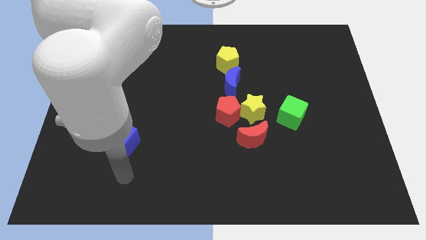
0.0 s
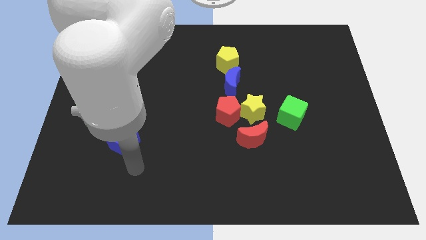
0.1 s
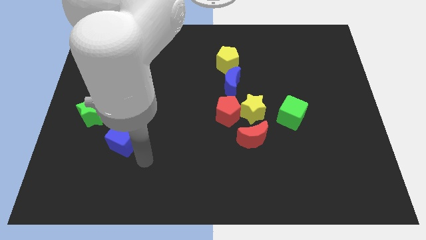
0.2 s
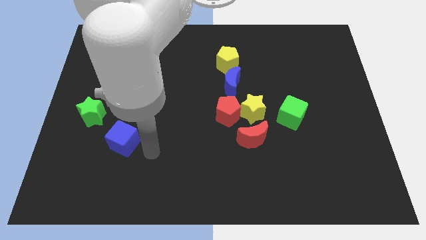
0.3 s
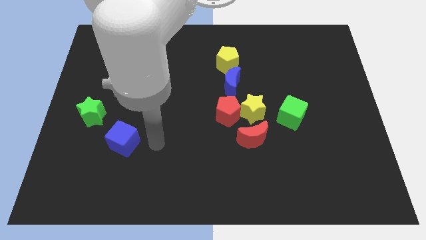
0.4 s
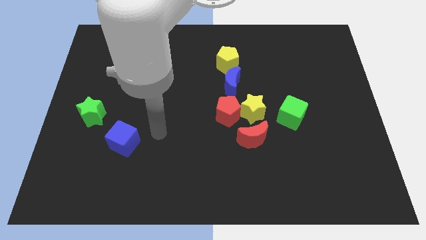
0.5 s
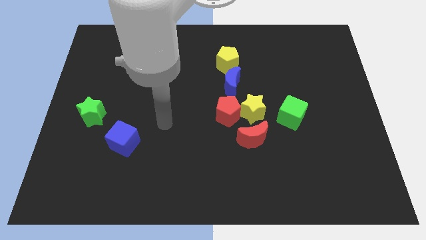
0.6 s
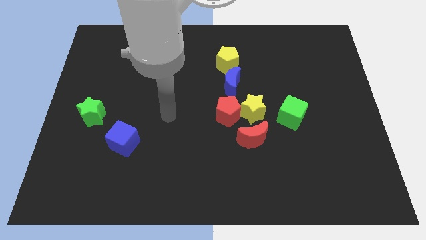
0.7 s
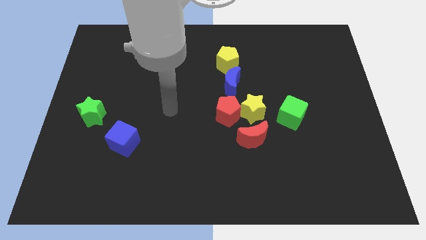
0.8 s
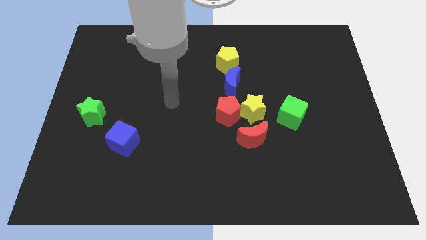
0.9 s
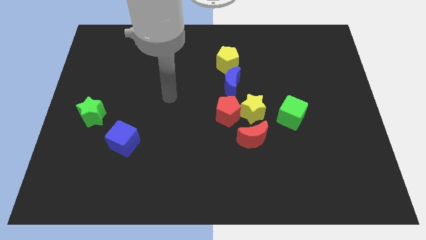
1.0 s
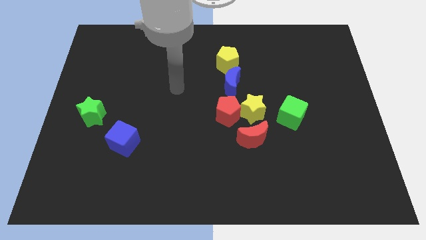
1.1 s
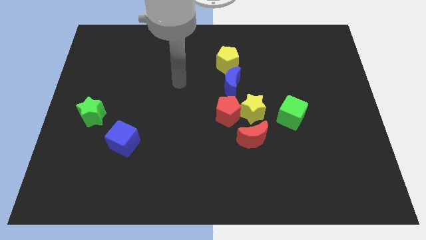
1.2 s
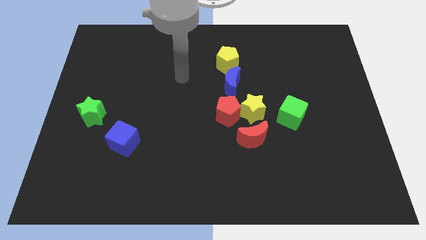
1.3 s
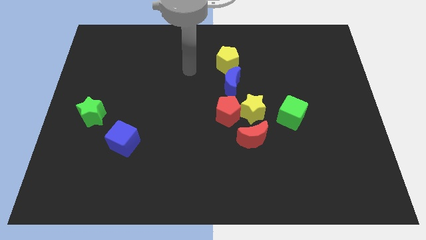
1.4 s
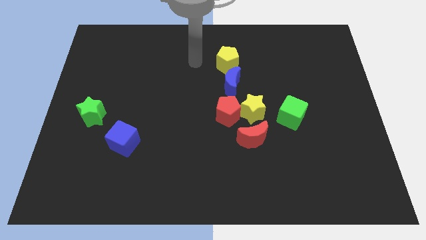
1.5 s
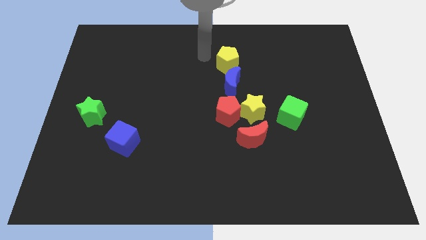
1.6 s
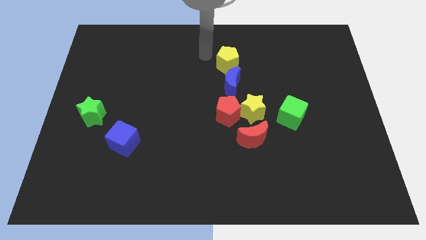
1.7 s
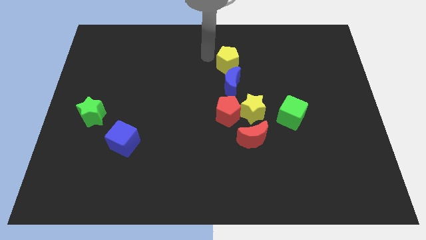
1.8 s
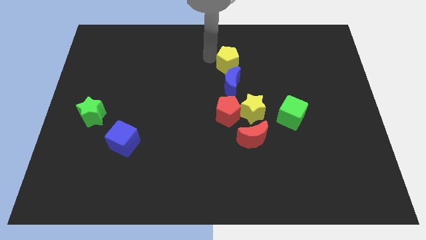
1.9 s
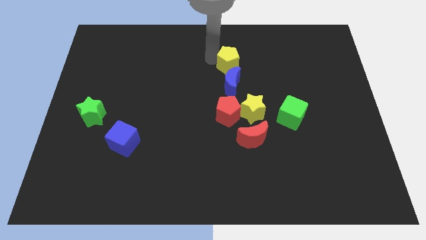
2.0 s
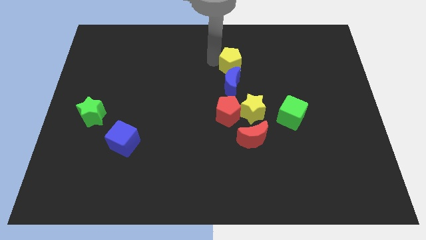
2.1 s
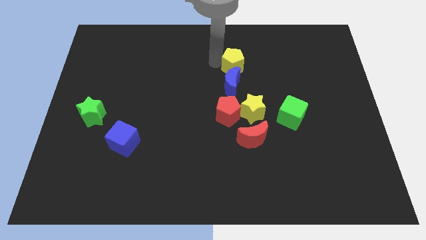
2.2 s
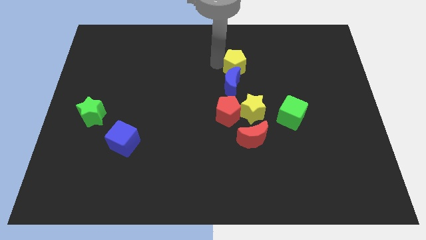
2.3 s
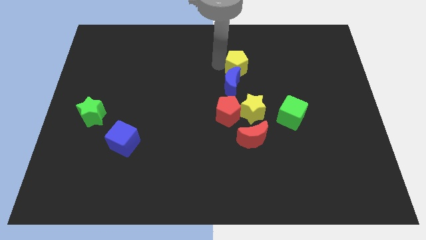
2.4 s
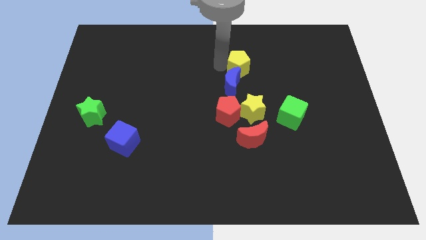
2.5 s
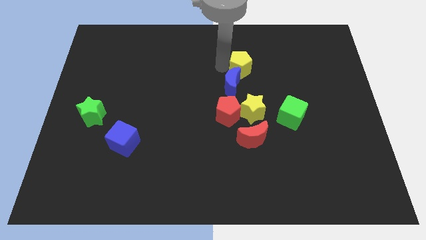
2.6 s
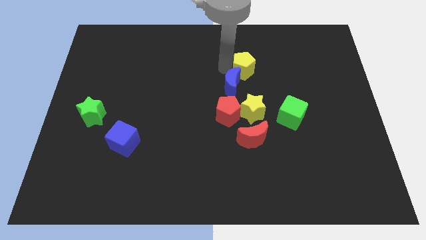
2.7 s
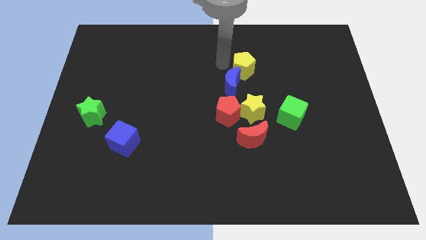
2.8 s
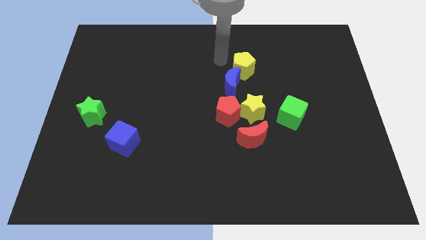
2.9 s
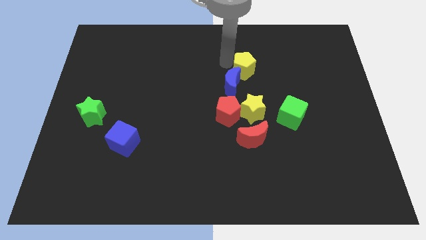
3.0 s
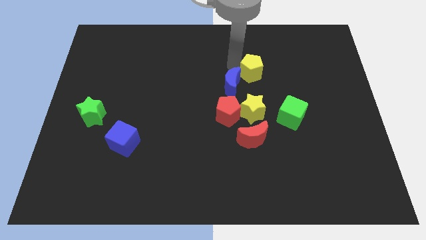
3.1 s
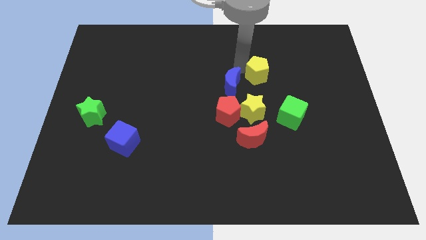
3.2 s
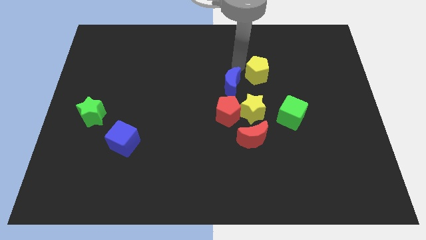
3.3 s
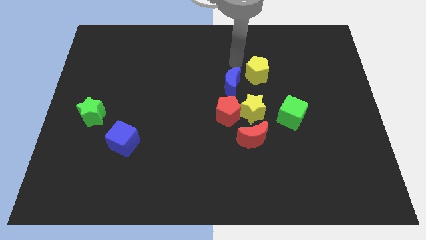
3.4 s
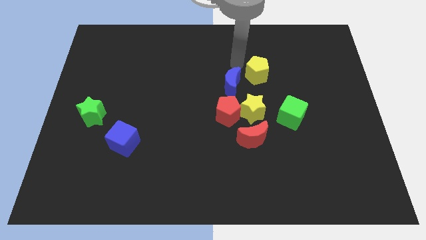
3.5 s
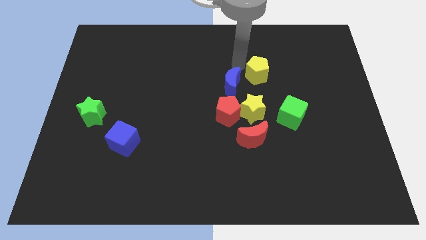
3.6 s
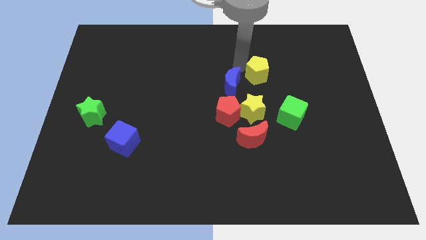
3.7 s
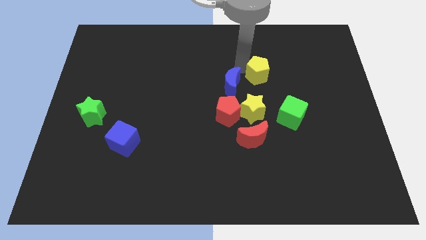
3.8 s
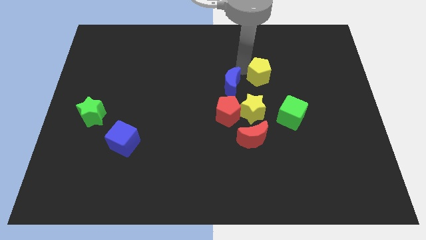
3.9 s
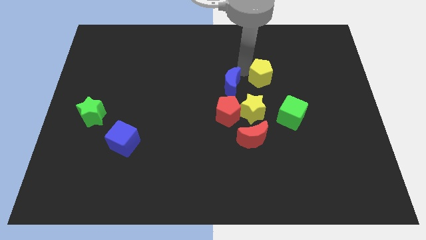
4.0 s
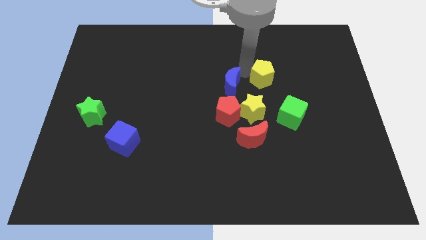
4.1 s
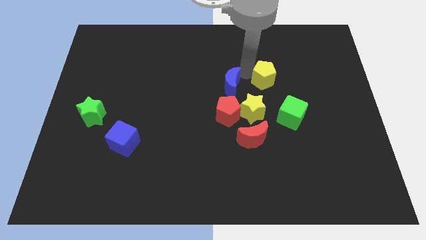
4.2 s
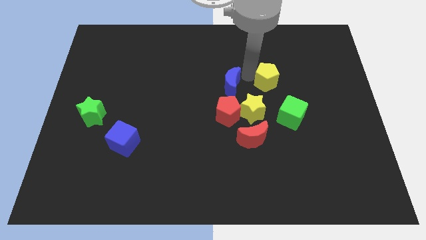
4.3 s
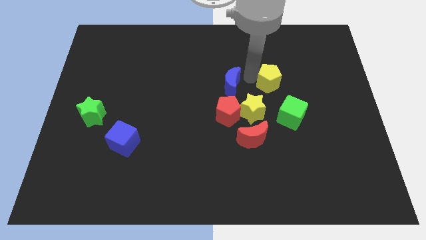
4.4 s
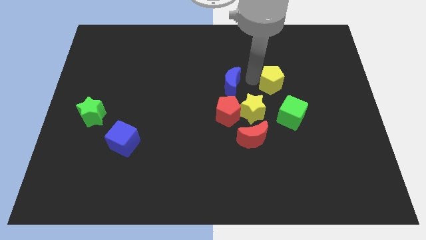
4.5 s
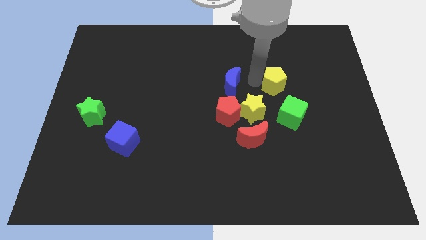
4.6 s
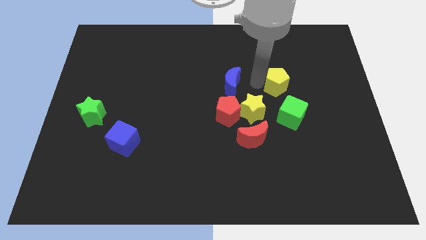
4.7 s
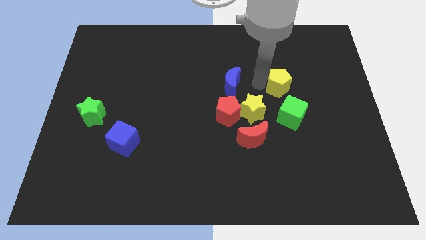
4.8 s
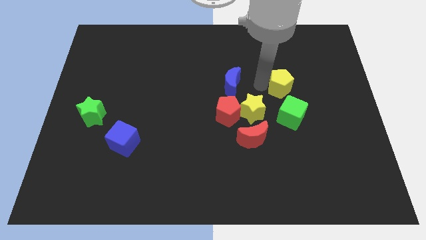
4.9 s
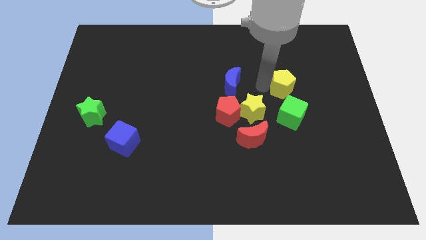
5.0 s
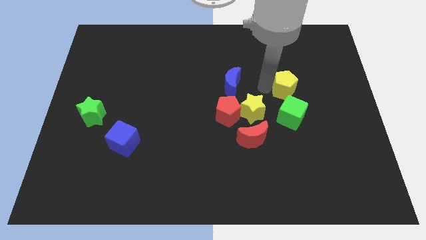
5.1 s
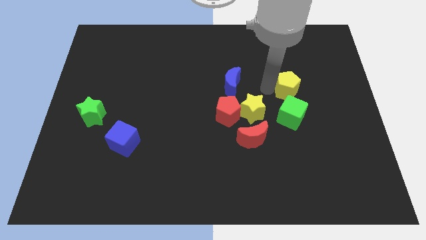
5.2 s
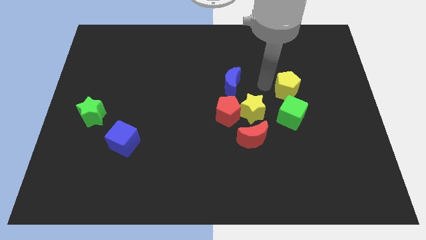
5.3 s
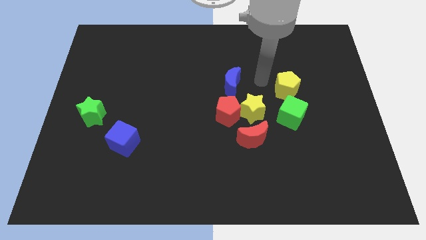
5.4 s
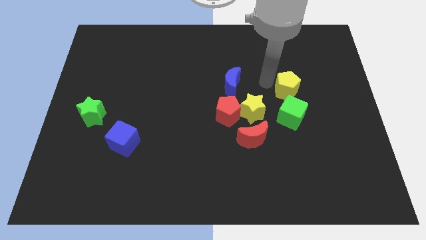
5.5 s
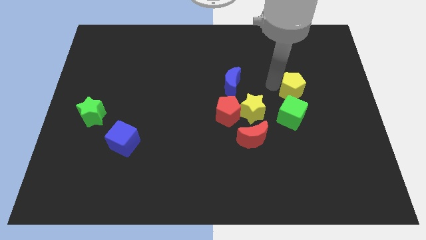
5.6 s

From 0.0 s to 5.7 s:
put the yellow pentagon to the top right of the green cube

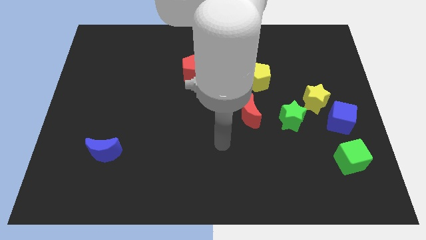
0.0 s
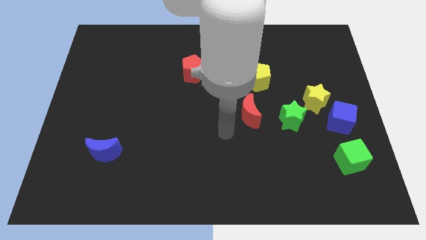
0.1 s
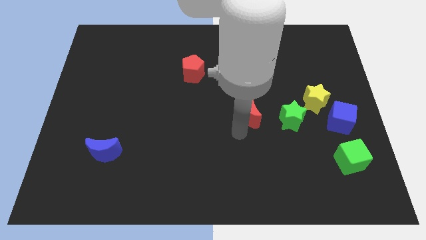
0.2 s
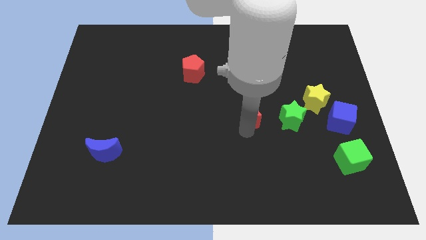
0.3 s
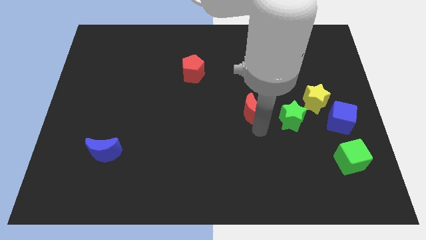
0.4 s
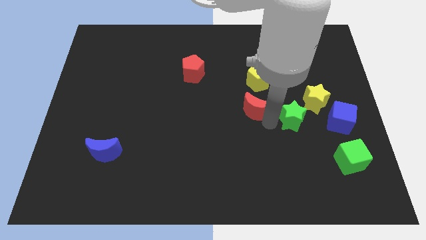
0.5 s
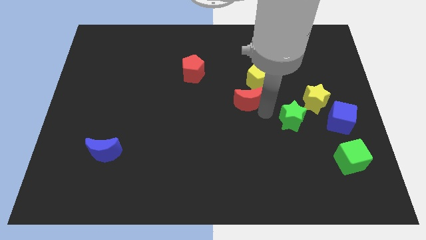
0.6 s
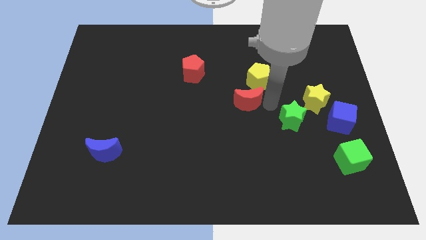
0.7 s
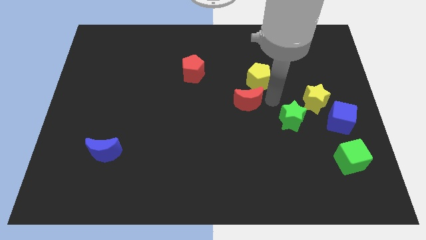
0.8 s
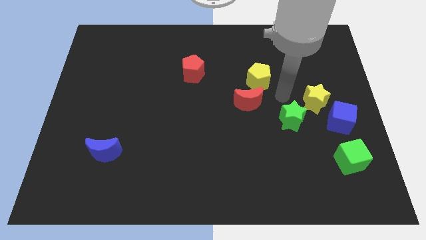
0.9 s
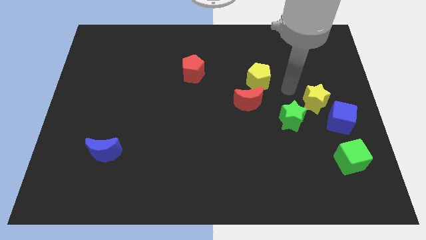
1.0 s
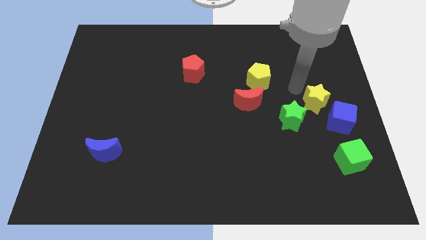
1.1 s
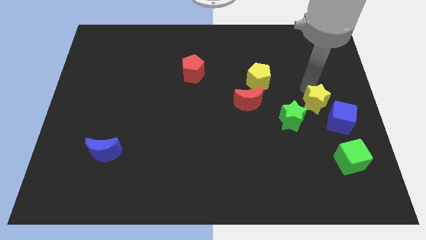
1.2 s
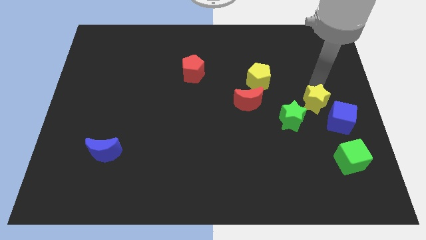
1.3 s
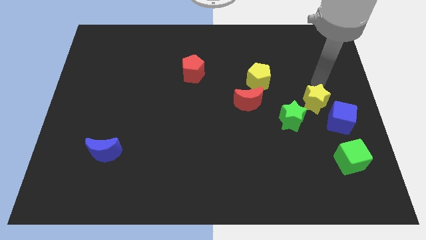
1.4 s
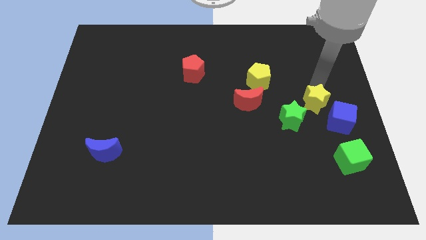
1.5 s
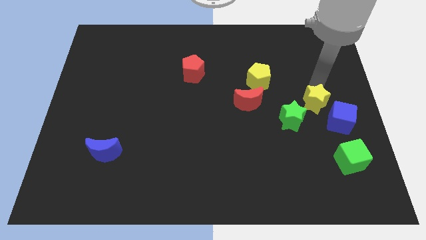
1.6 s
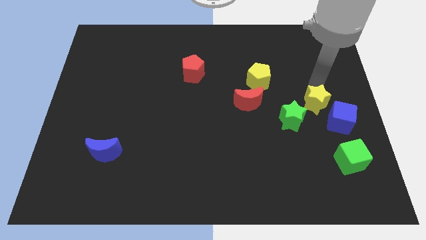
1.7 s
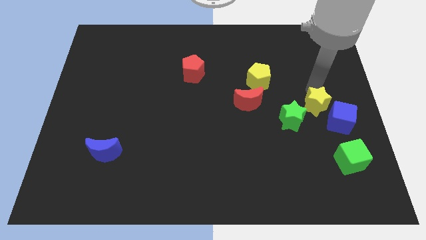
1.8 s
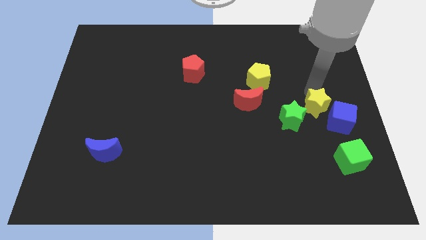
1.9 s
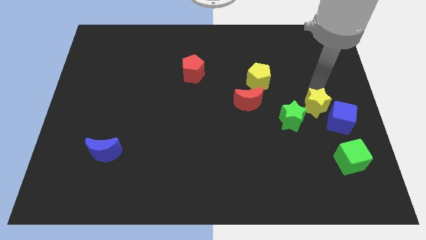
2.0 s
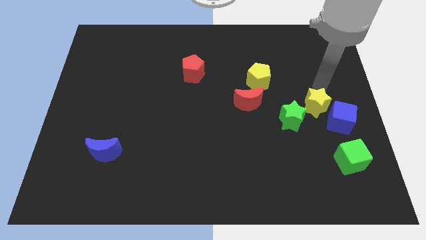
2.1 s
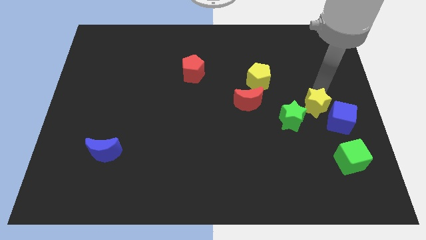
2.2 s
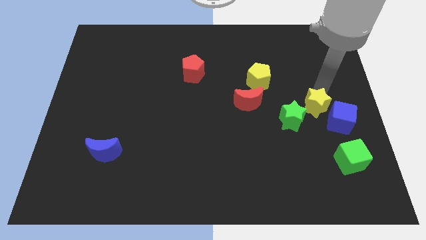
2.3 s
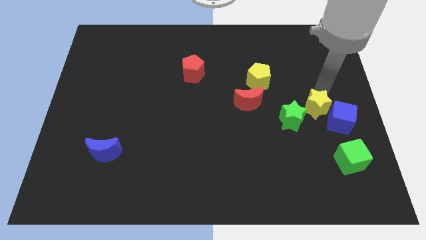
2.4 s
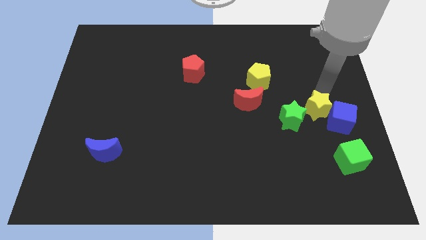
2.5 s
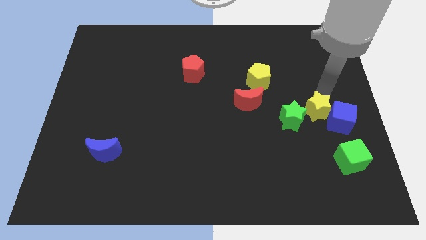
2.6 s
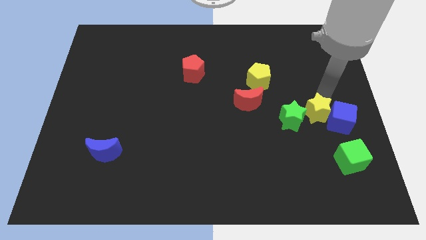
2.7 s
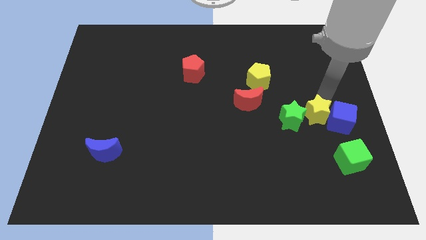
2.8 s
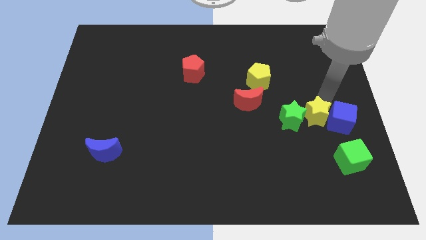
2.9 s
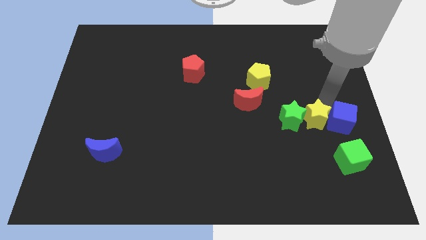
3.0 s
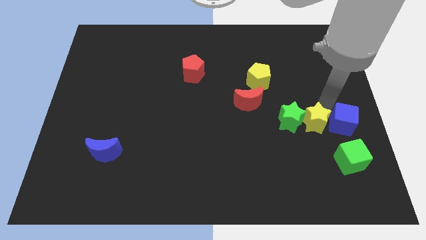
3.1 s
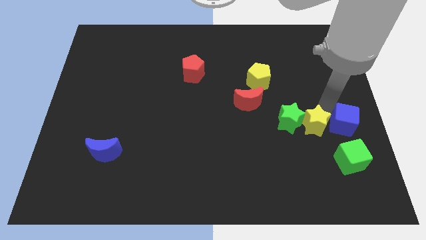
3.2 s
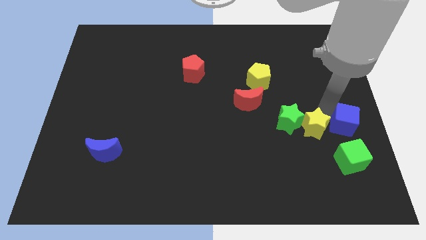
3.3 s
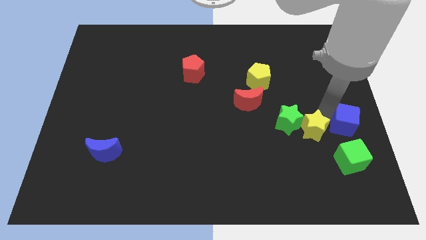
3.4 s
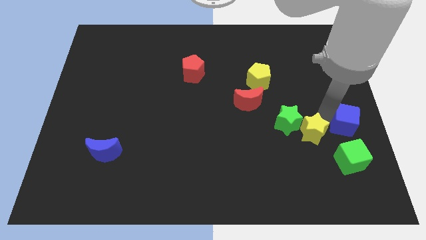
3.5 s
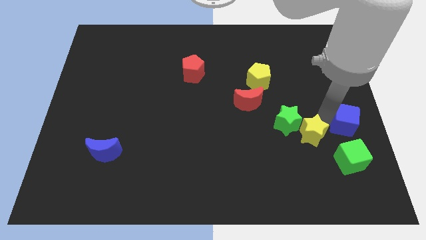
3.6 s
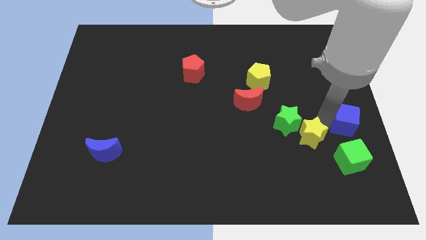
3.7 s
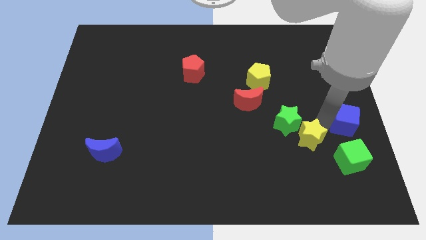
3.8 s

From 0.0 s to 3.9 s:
put the yellow star below the green star
